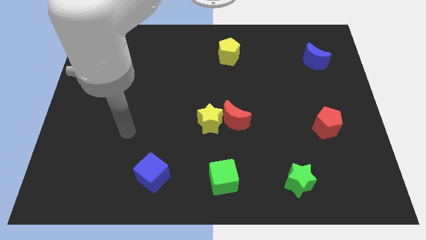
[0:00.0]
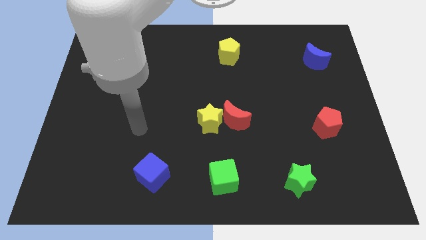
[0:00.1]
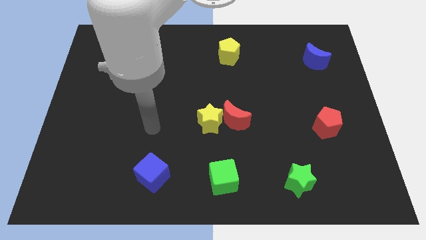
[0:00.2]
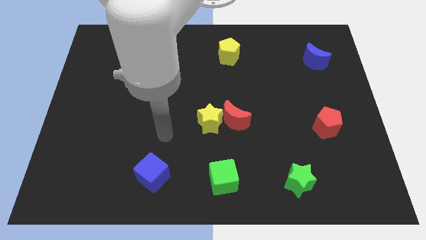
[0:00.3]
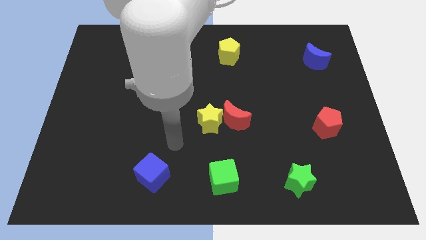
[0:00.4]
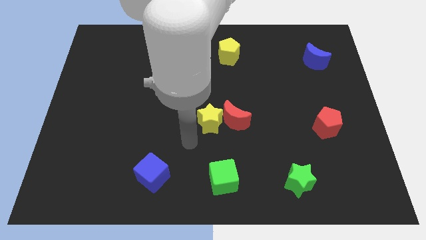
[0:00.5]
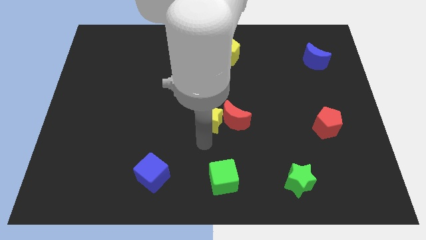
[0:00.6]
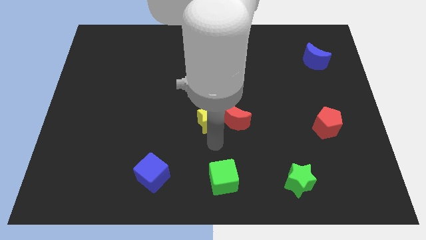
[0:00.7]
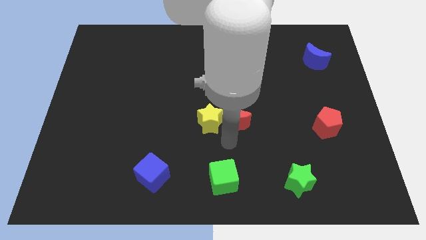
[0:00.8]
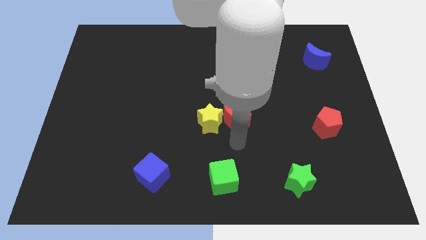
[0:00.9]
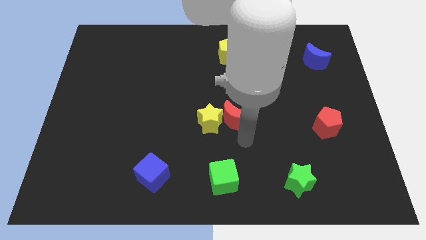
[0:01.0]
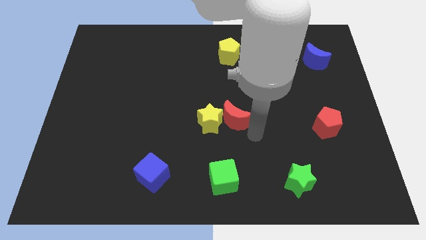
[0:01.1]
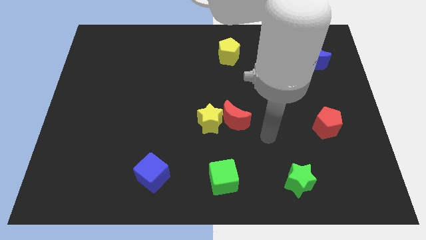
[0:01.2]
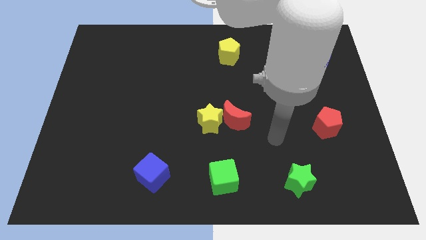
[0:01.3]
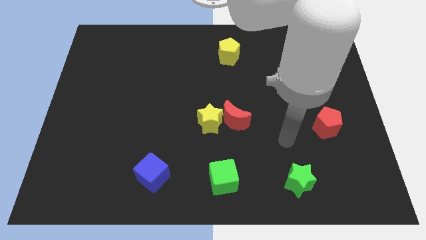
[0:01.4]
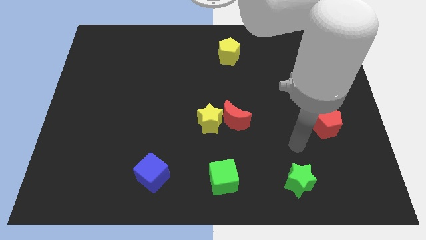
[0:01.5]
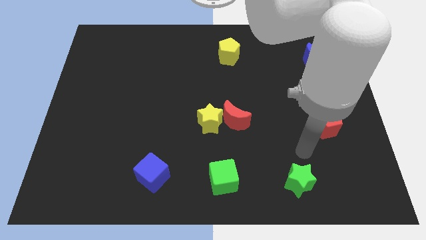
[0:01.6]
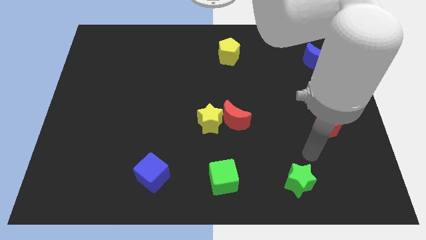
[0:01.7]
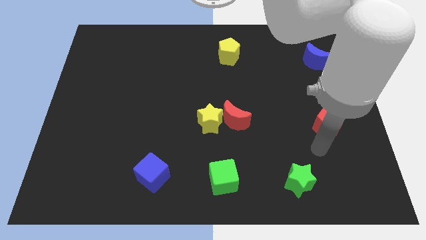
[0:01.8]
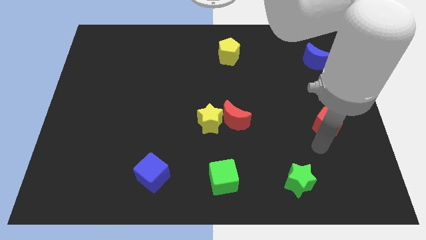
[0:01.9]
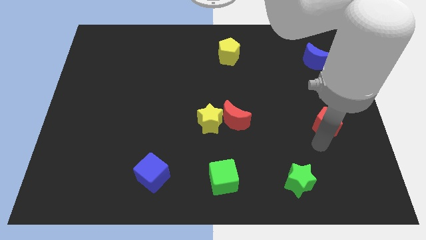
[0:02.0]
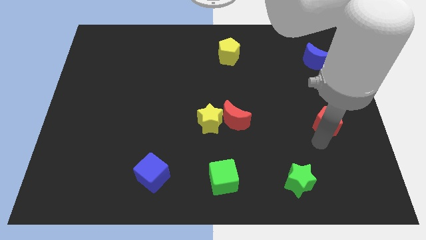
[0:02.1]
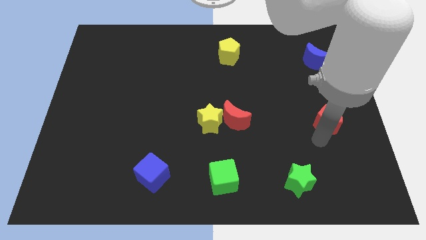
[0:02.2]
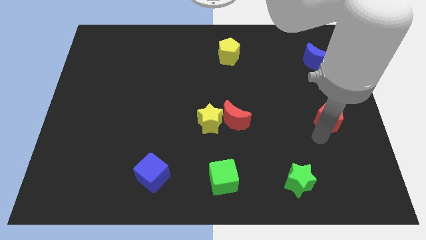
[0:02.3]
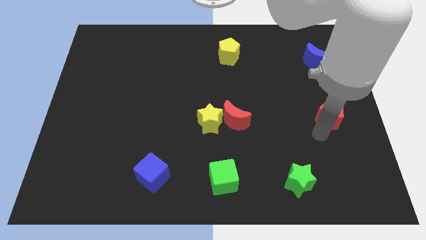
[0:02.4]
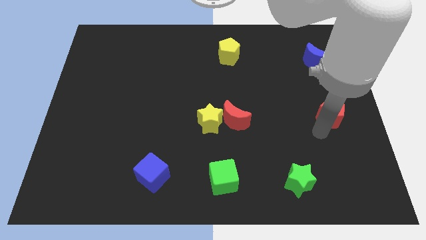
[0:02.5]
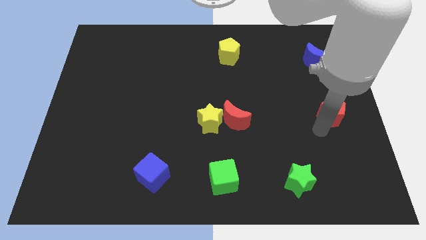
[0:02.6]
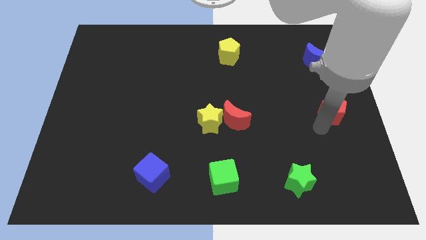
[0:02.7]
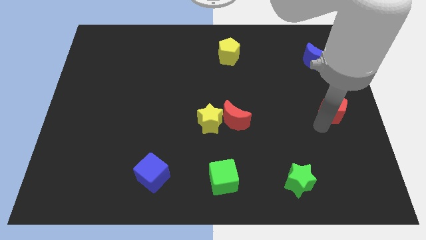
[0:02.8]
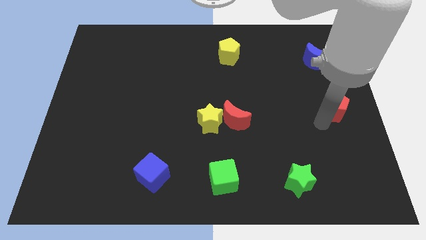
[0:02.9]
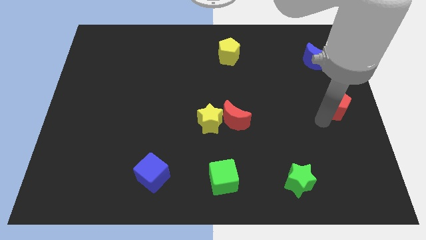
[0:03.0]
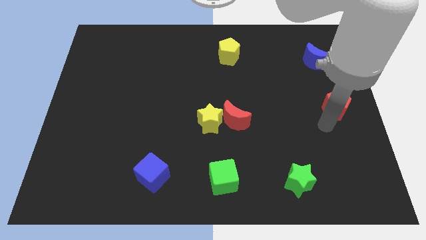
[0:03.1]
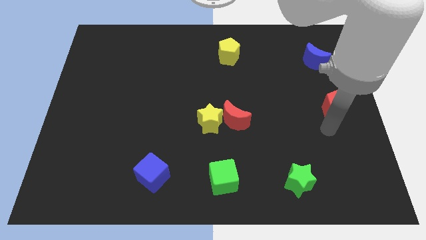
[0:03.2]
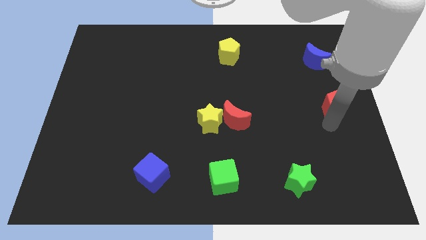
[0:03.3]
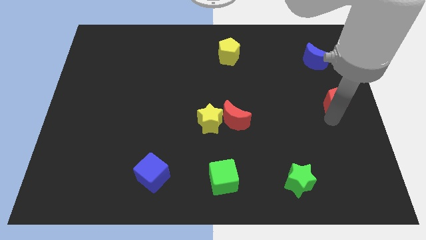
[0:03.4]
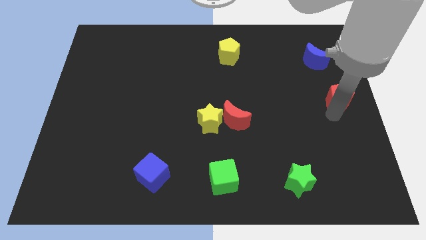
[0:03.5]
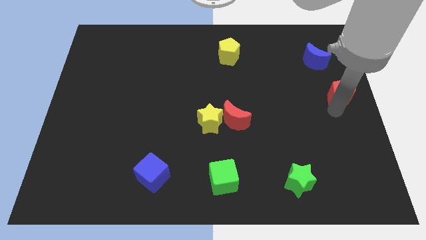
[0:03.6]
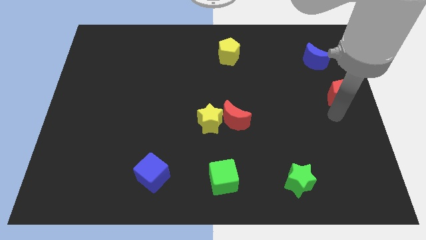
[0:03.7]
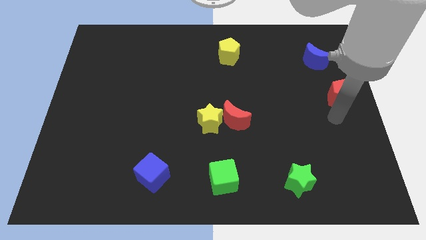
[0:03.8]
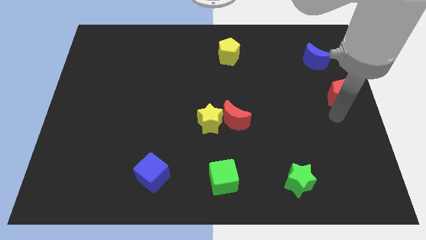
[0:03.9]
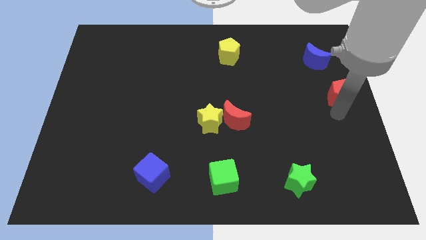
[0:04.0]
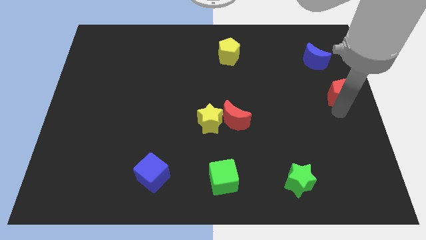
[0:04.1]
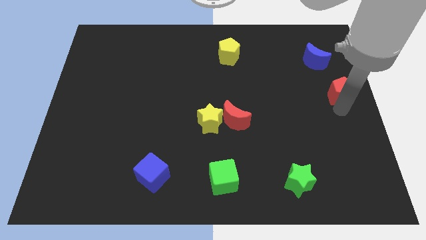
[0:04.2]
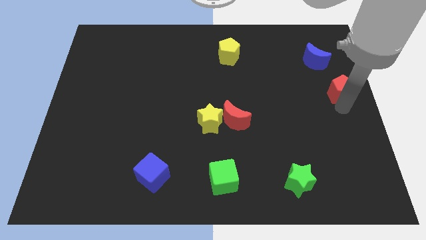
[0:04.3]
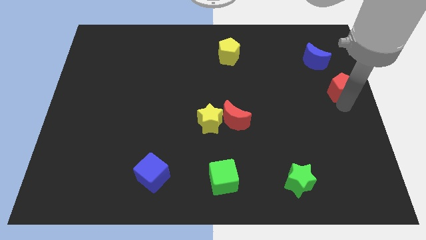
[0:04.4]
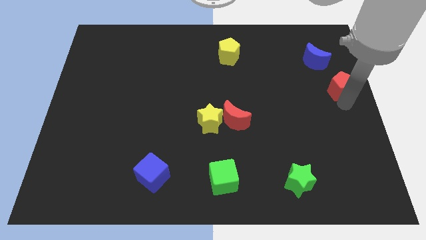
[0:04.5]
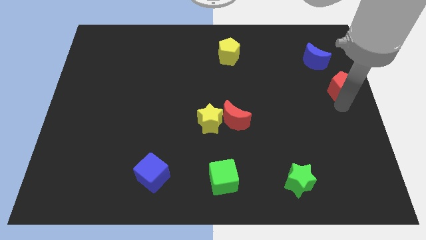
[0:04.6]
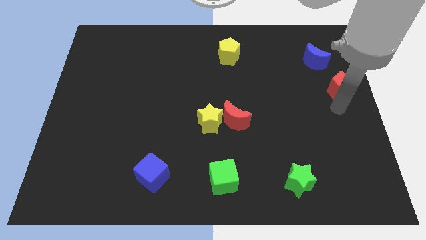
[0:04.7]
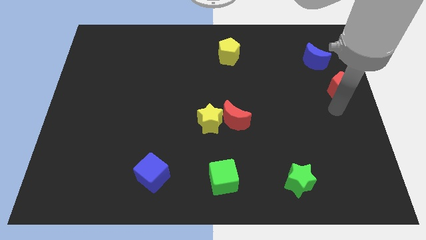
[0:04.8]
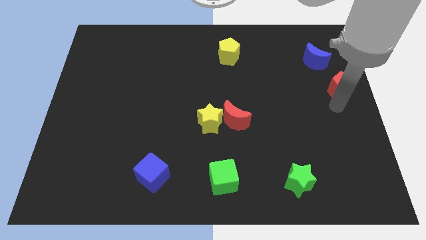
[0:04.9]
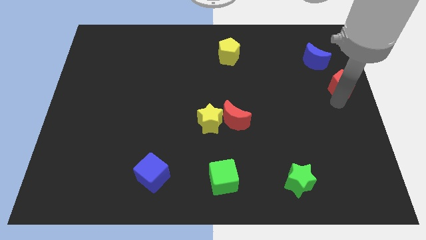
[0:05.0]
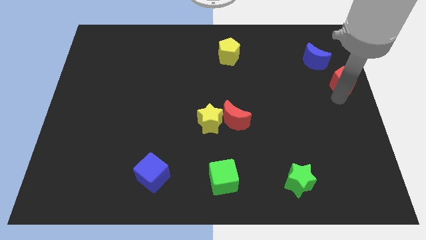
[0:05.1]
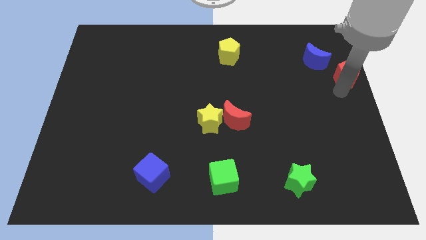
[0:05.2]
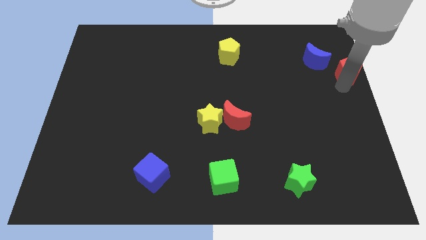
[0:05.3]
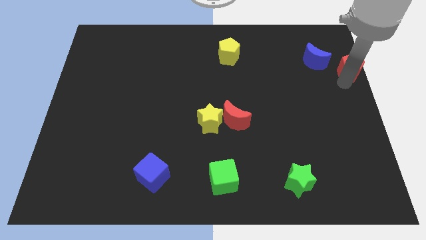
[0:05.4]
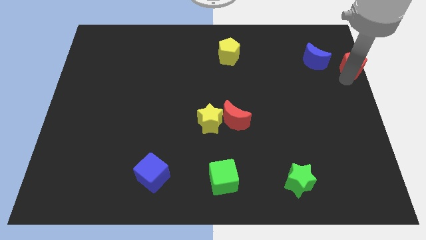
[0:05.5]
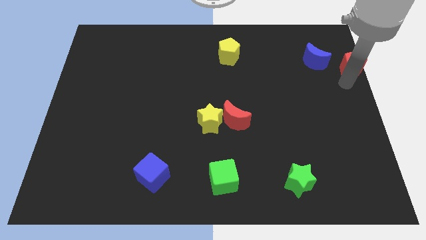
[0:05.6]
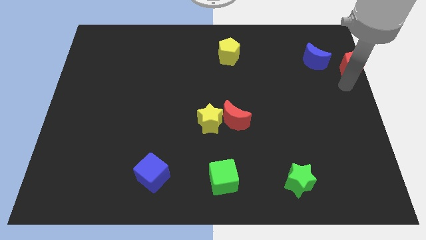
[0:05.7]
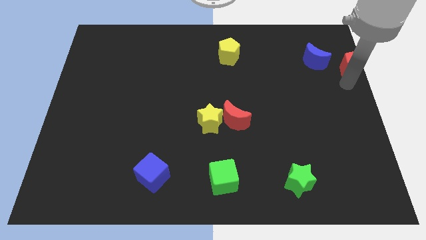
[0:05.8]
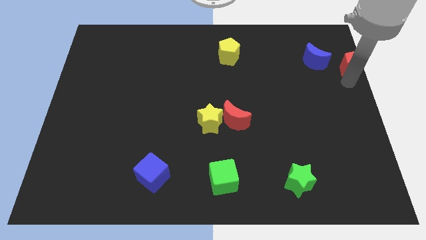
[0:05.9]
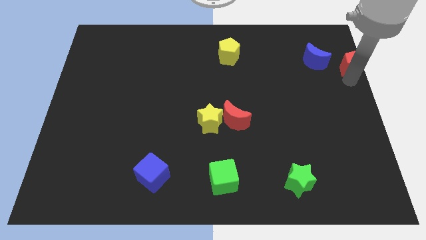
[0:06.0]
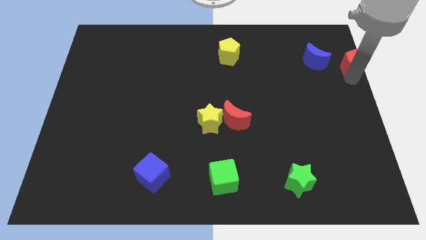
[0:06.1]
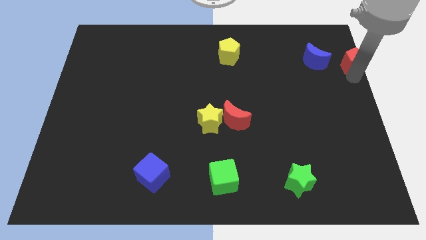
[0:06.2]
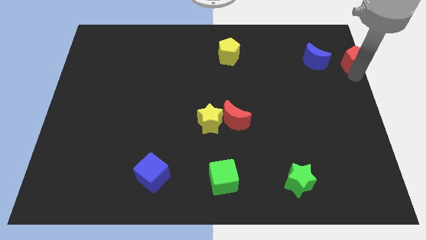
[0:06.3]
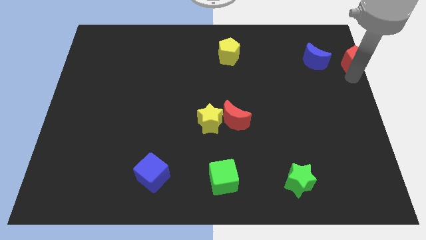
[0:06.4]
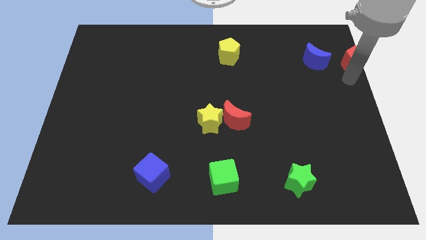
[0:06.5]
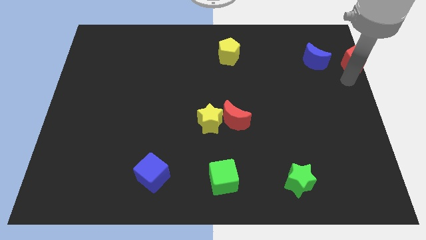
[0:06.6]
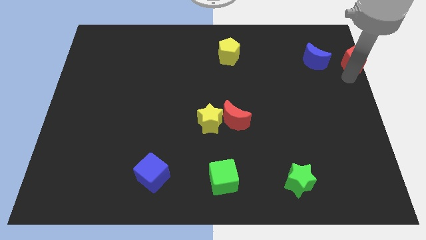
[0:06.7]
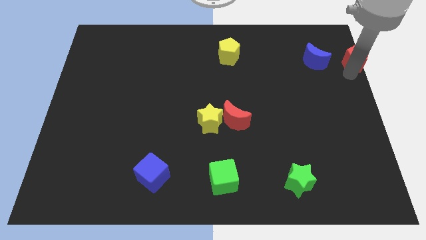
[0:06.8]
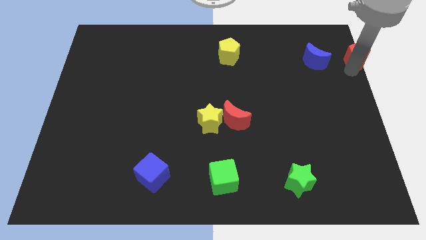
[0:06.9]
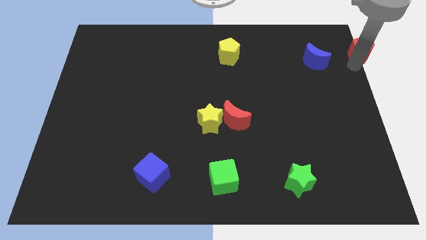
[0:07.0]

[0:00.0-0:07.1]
put the red pentagon to the top right of the board

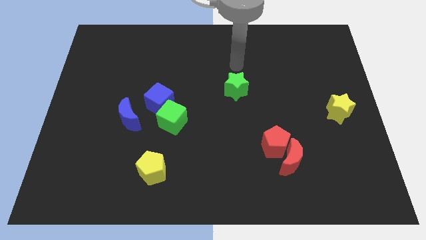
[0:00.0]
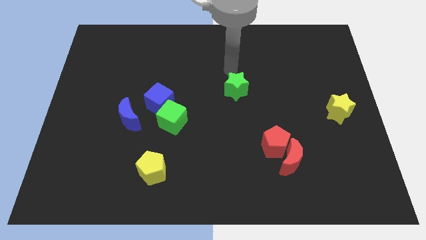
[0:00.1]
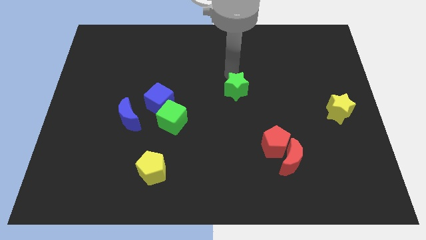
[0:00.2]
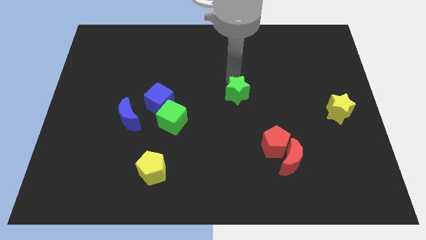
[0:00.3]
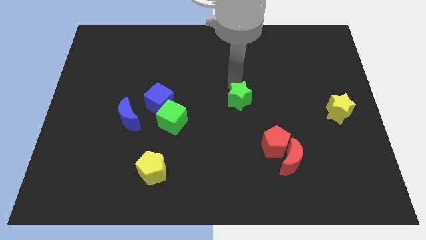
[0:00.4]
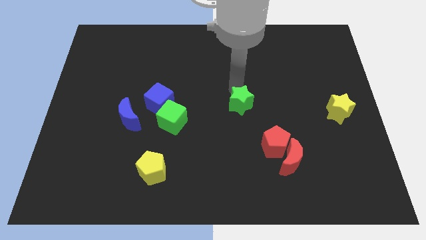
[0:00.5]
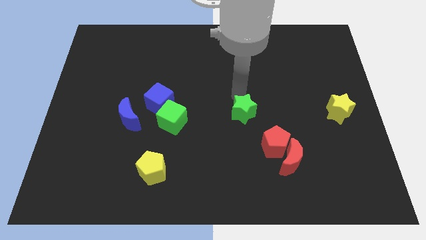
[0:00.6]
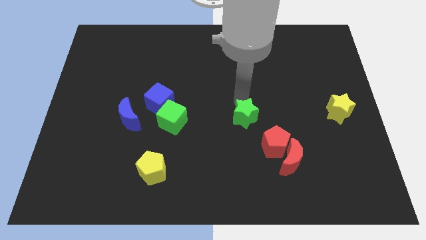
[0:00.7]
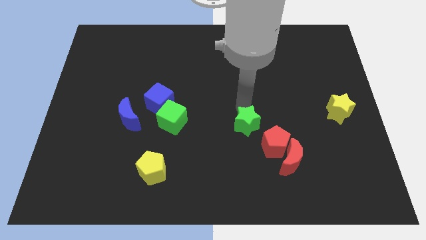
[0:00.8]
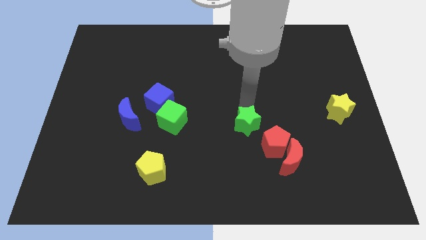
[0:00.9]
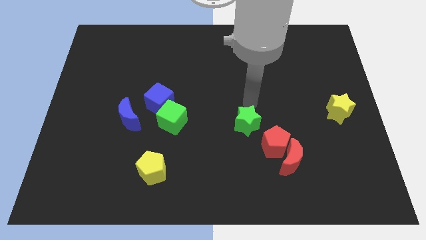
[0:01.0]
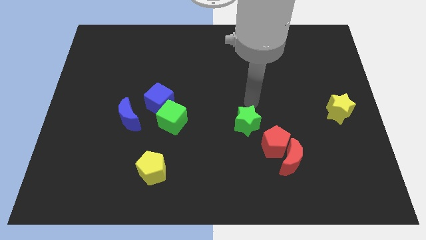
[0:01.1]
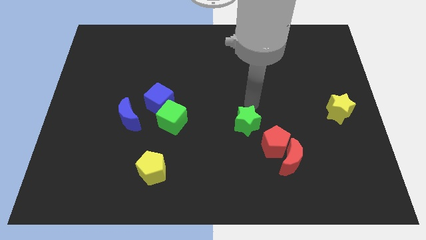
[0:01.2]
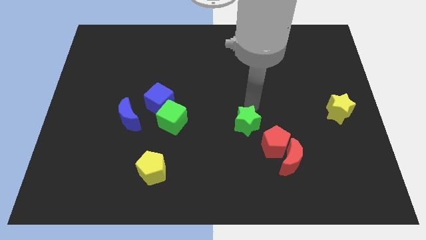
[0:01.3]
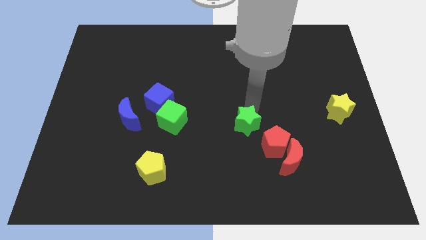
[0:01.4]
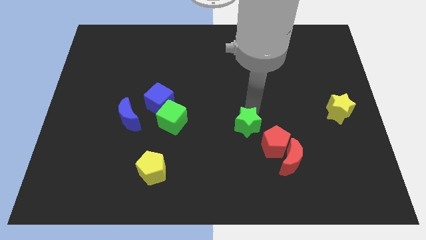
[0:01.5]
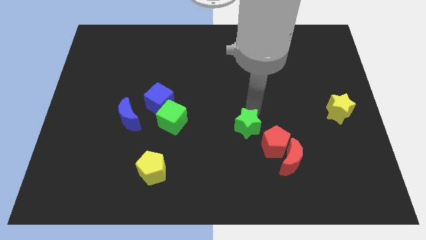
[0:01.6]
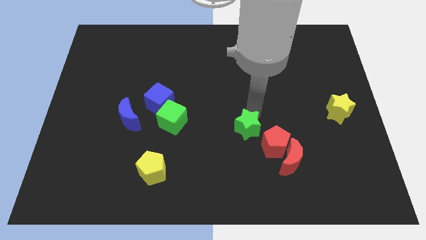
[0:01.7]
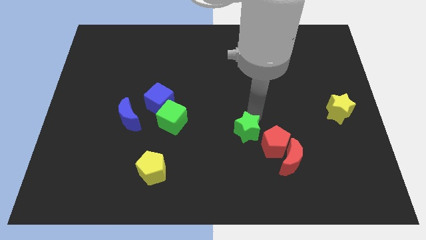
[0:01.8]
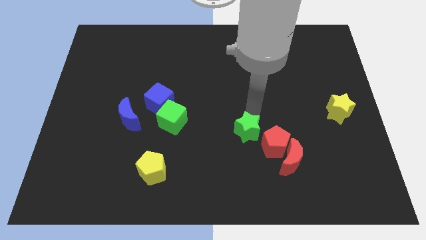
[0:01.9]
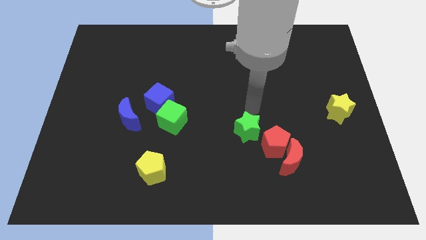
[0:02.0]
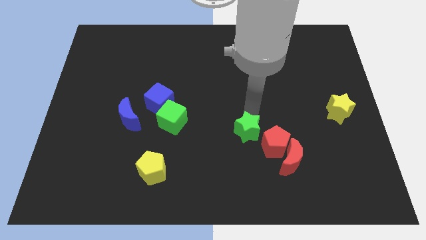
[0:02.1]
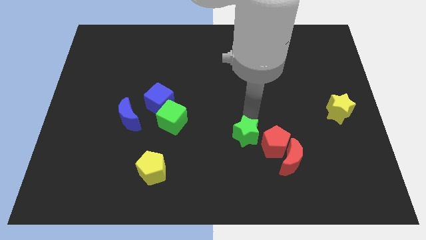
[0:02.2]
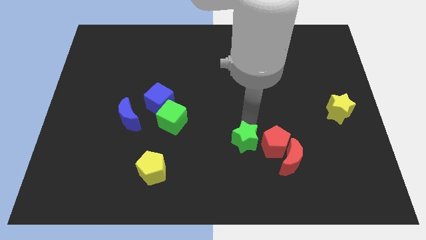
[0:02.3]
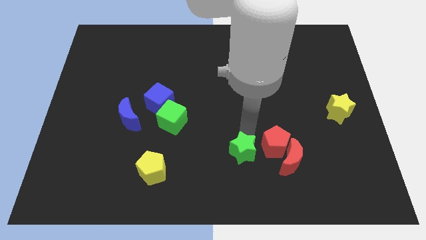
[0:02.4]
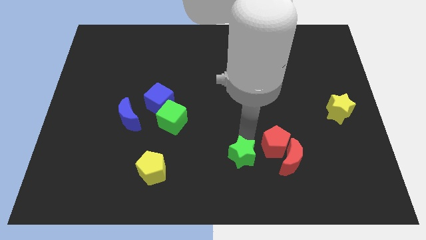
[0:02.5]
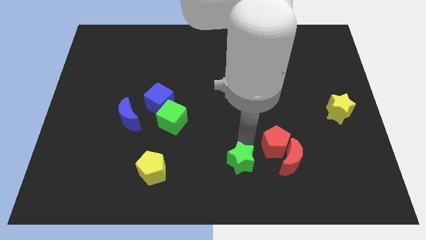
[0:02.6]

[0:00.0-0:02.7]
slide the green star to the bottom
